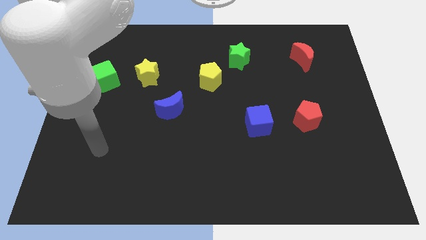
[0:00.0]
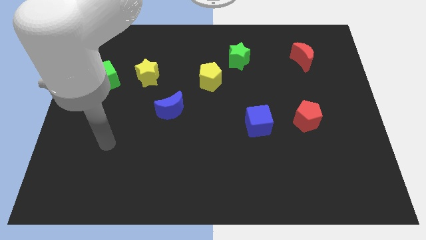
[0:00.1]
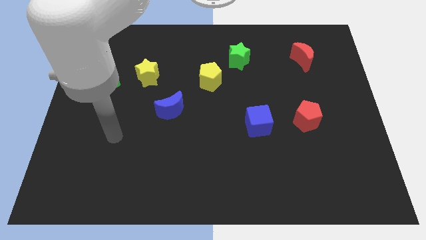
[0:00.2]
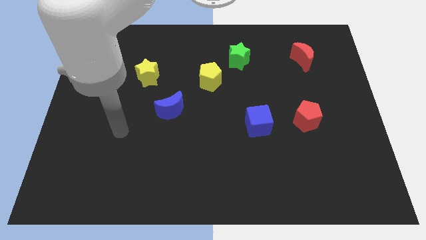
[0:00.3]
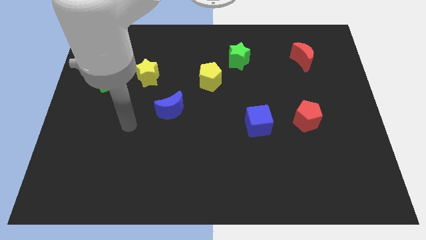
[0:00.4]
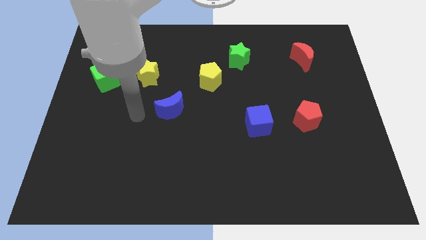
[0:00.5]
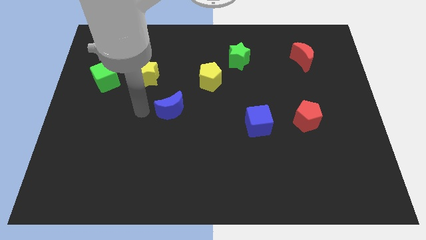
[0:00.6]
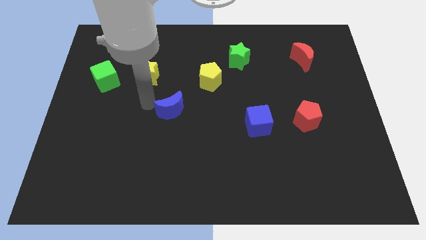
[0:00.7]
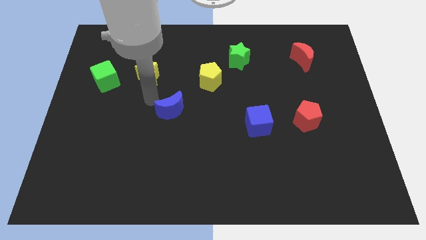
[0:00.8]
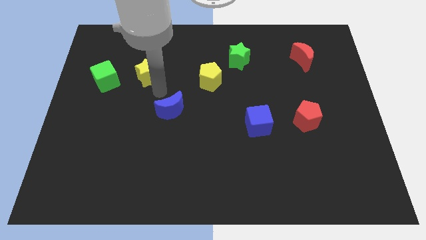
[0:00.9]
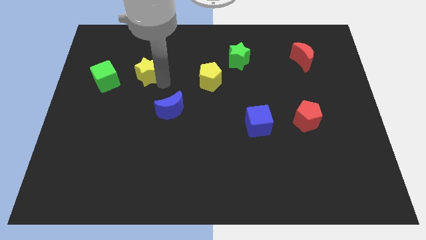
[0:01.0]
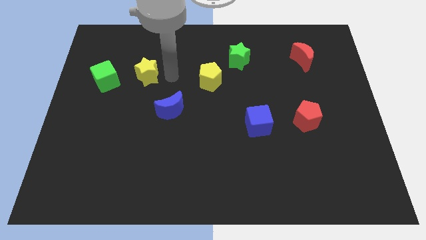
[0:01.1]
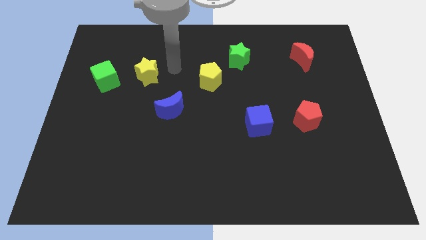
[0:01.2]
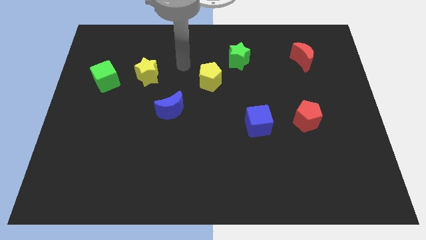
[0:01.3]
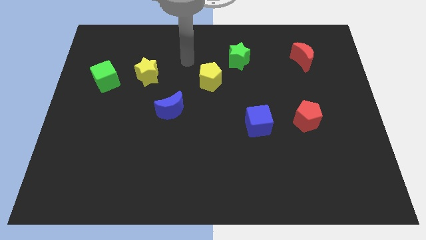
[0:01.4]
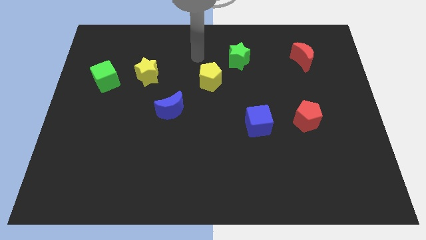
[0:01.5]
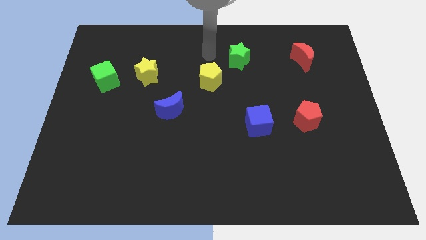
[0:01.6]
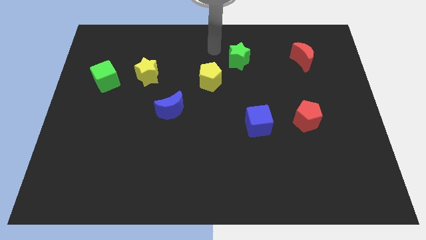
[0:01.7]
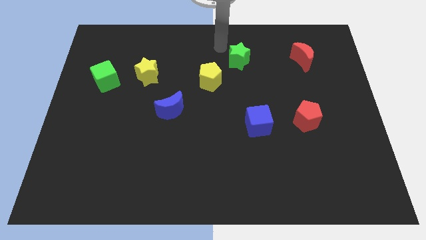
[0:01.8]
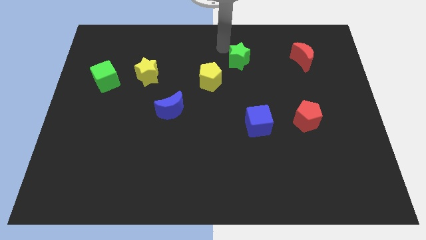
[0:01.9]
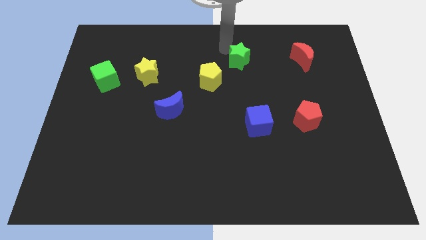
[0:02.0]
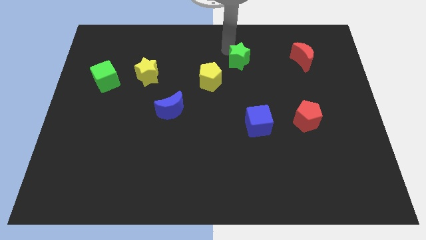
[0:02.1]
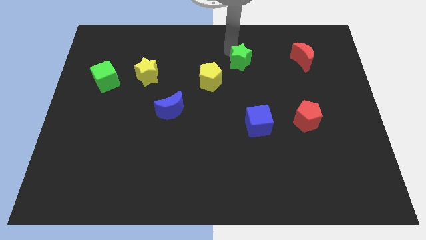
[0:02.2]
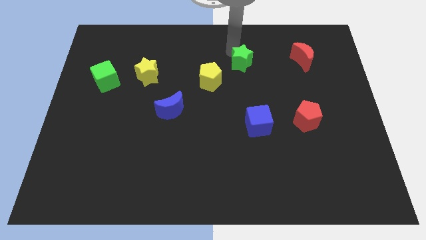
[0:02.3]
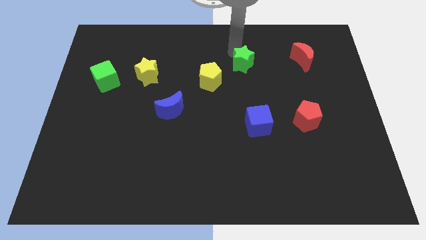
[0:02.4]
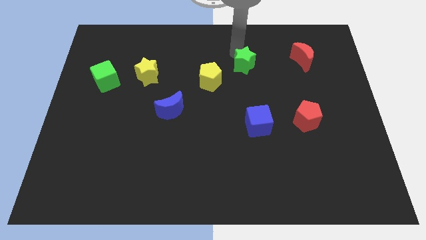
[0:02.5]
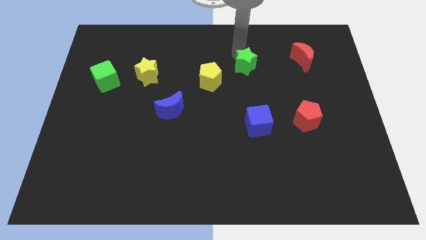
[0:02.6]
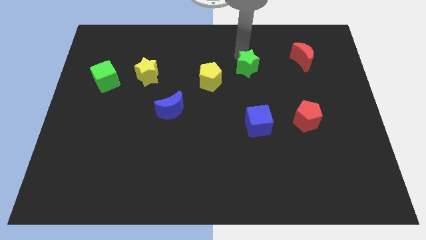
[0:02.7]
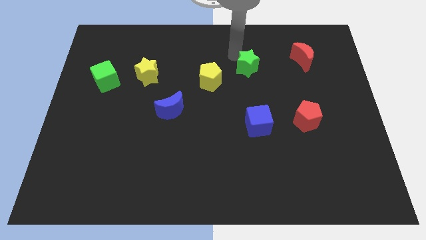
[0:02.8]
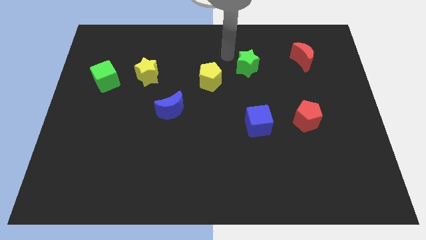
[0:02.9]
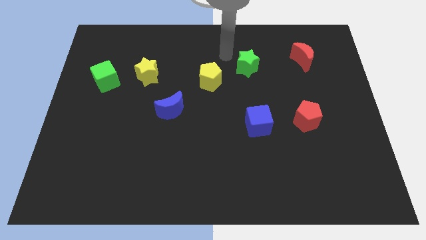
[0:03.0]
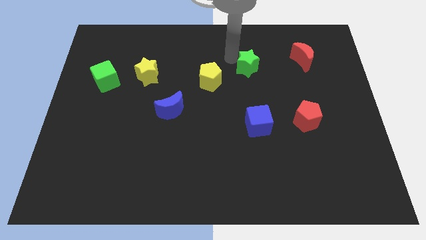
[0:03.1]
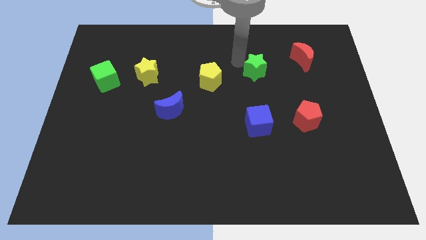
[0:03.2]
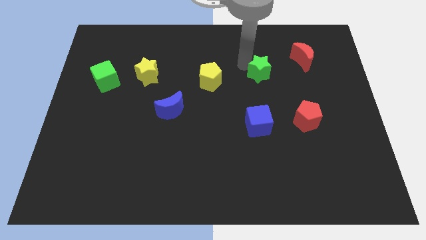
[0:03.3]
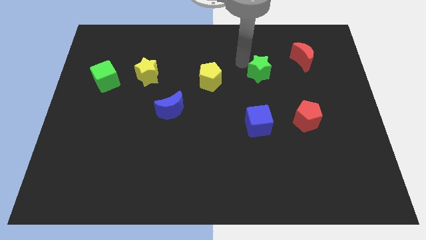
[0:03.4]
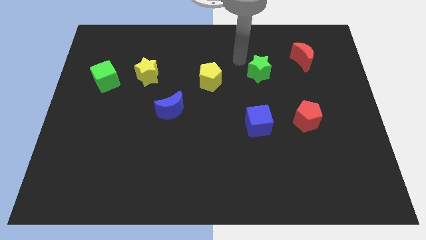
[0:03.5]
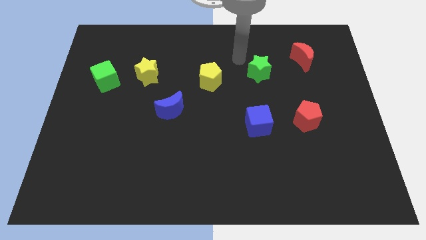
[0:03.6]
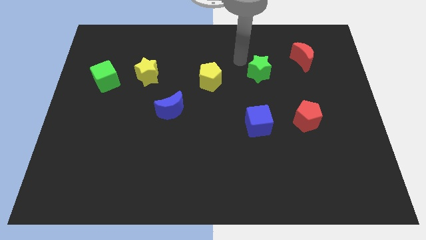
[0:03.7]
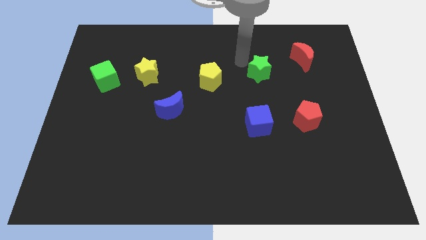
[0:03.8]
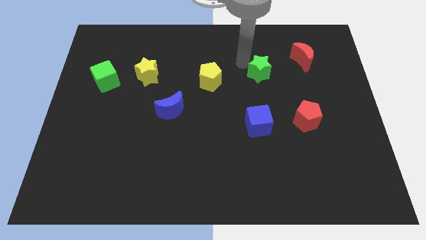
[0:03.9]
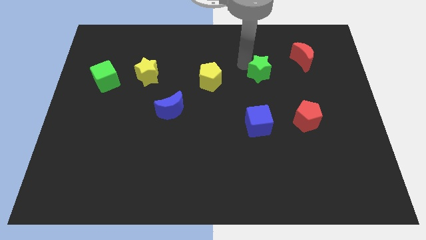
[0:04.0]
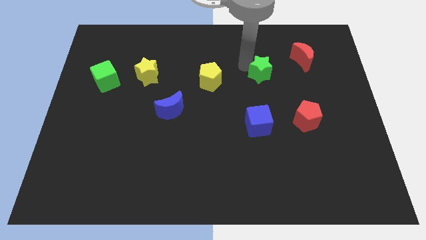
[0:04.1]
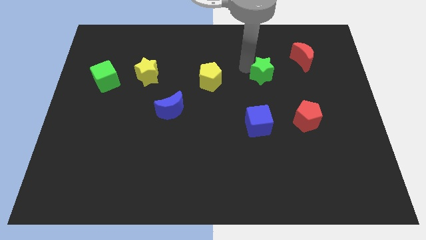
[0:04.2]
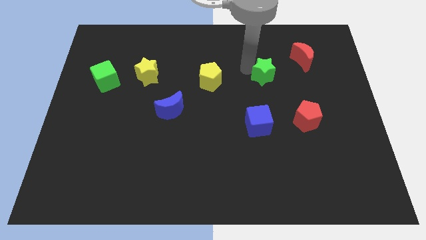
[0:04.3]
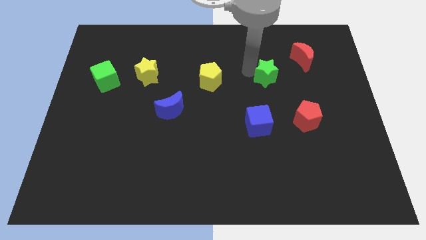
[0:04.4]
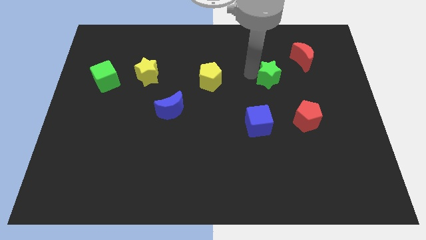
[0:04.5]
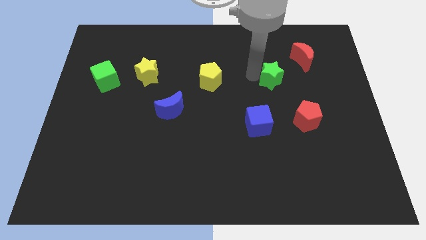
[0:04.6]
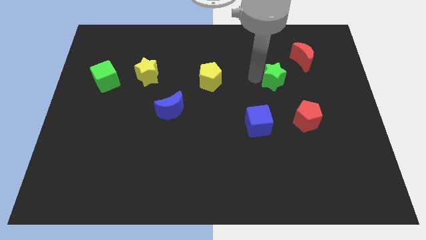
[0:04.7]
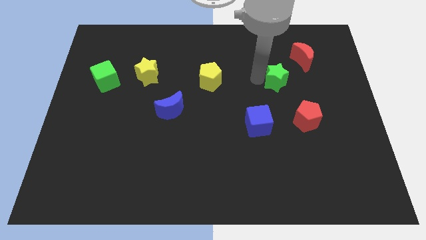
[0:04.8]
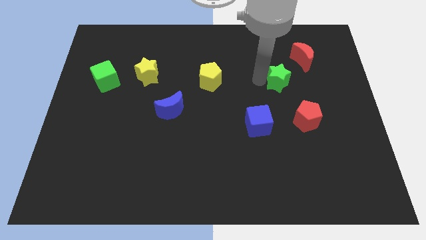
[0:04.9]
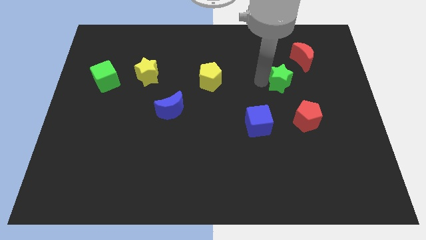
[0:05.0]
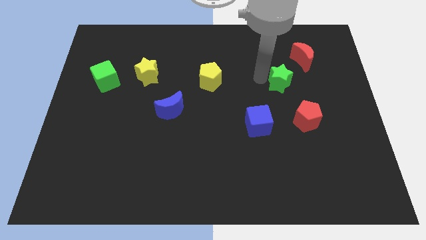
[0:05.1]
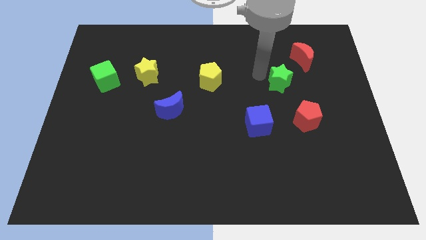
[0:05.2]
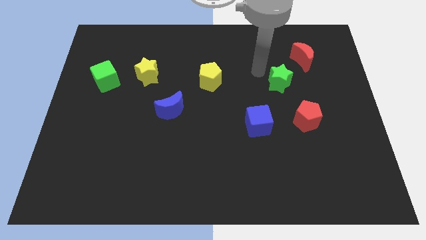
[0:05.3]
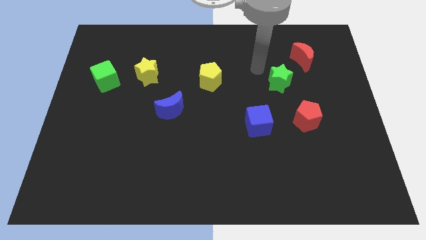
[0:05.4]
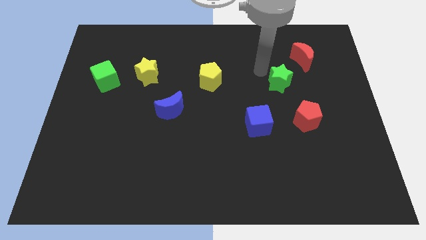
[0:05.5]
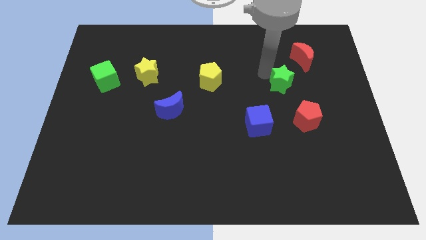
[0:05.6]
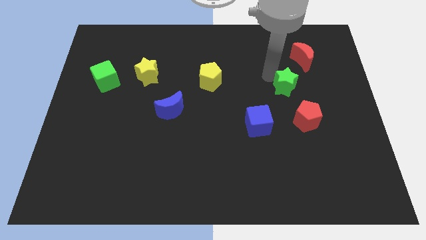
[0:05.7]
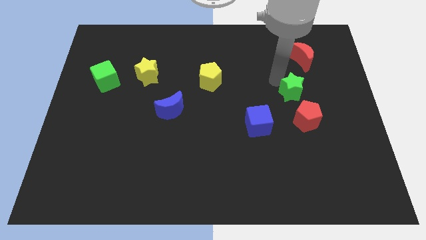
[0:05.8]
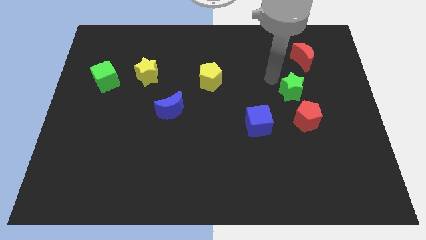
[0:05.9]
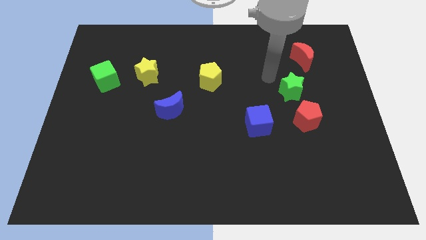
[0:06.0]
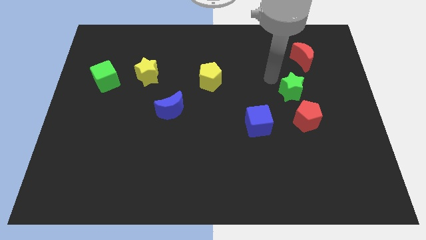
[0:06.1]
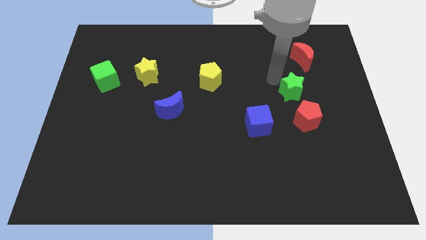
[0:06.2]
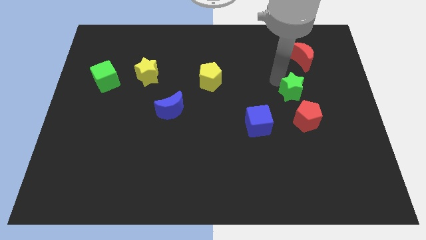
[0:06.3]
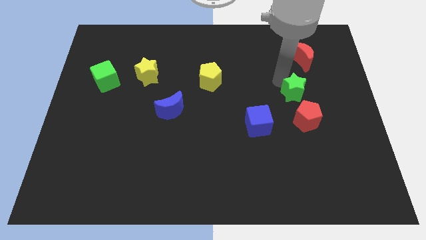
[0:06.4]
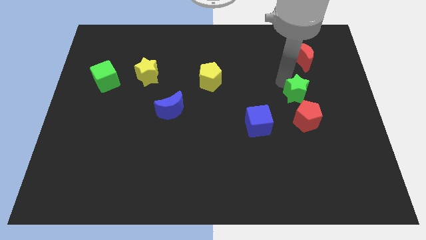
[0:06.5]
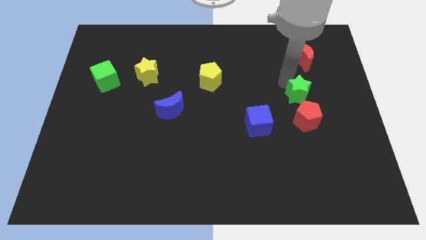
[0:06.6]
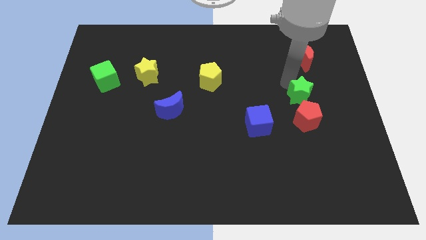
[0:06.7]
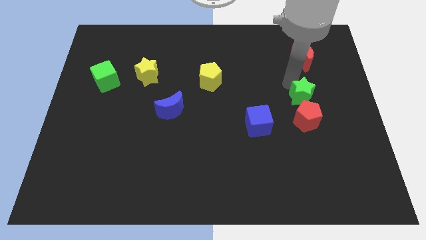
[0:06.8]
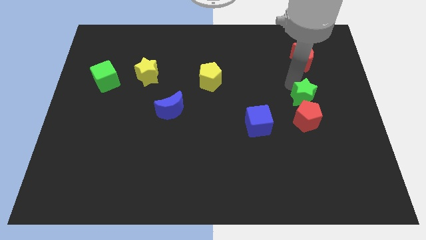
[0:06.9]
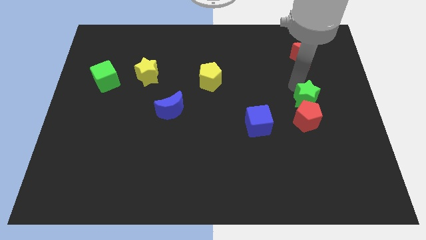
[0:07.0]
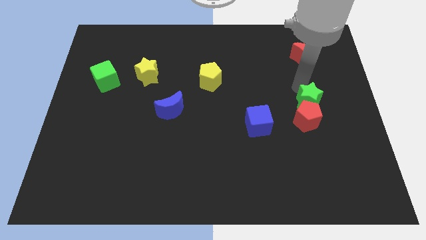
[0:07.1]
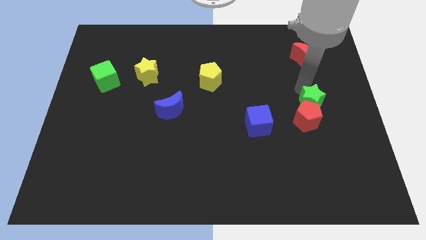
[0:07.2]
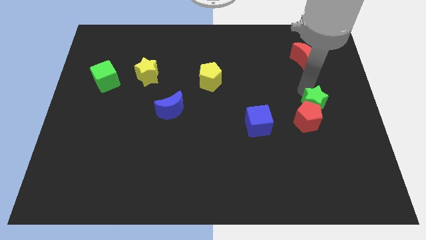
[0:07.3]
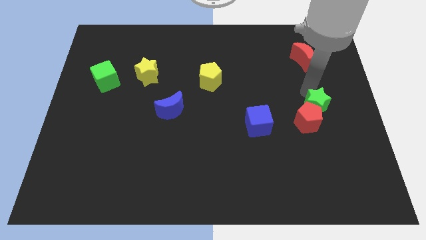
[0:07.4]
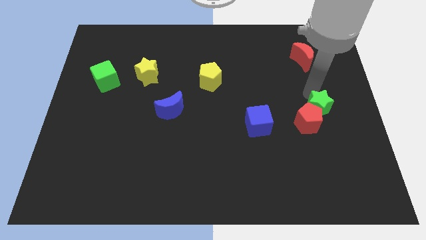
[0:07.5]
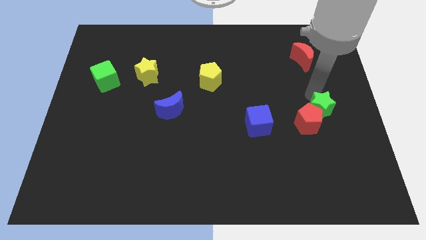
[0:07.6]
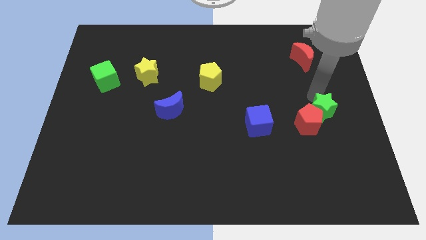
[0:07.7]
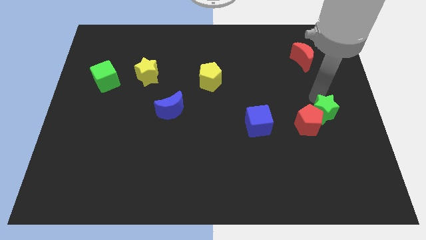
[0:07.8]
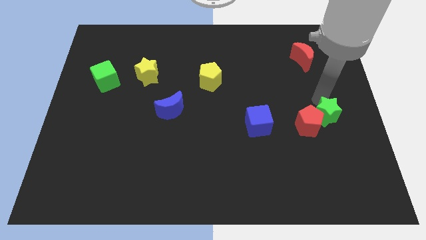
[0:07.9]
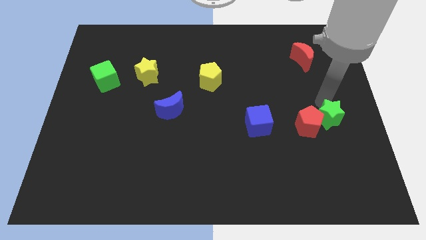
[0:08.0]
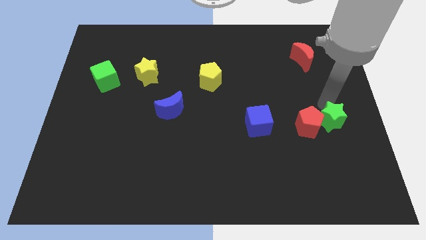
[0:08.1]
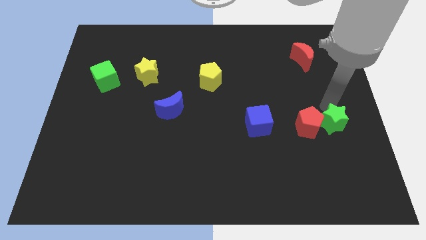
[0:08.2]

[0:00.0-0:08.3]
move the green star to the bottom right side of the red pentagon
